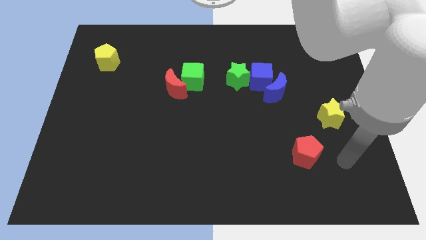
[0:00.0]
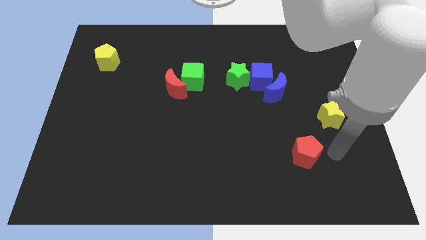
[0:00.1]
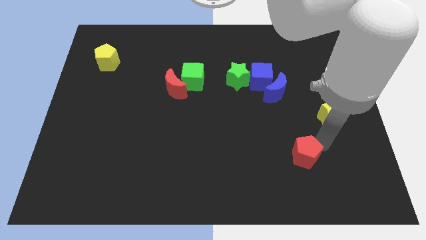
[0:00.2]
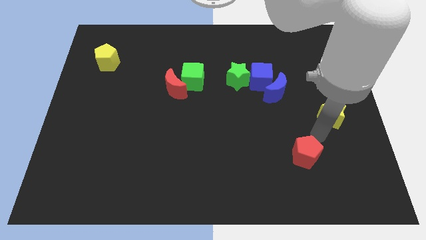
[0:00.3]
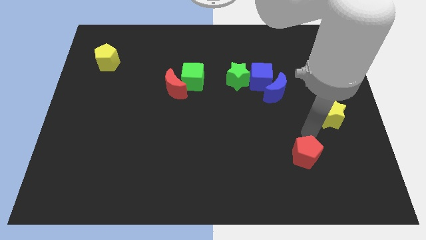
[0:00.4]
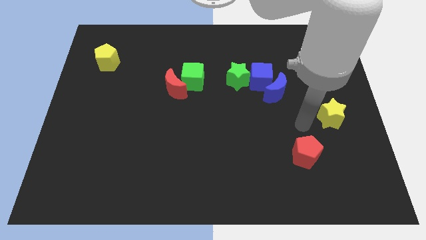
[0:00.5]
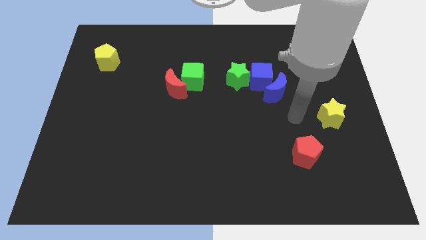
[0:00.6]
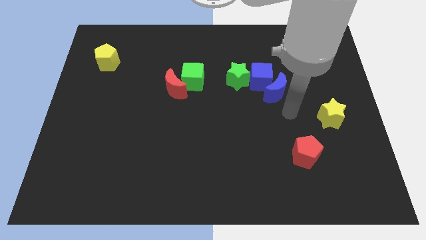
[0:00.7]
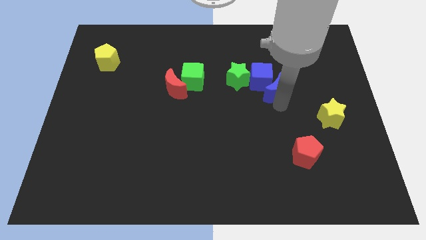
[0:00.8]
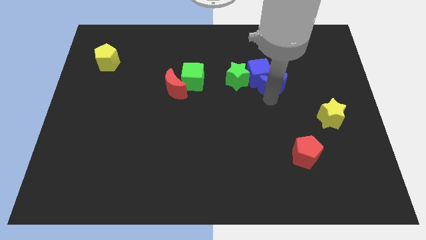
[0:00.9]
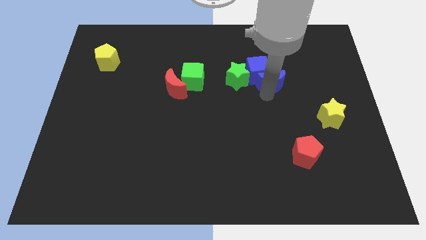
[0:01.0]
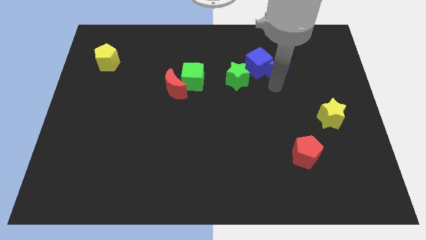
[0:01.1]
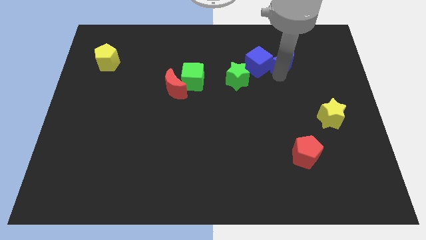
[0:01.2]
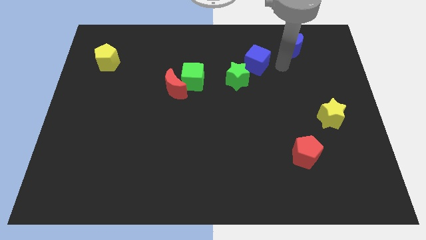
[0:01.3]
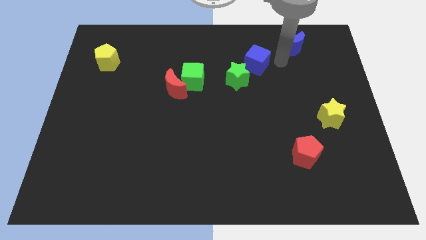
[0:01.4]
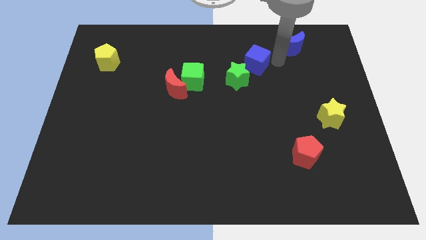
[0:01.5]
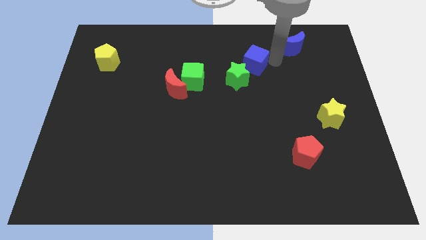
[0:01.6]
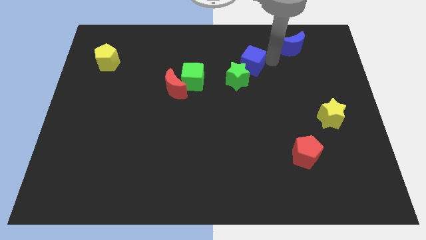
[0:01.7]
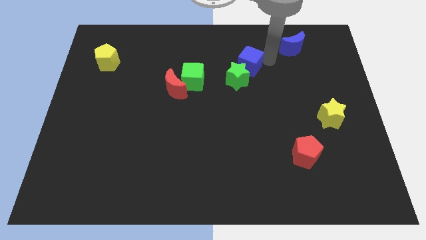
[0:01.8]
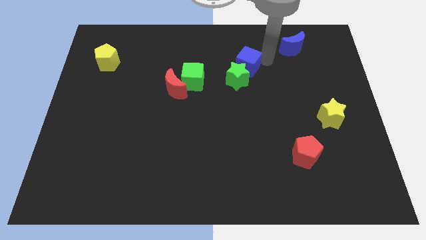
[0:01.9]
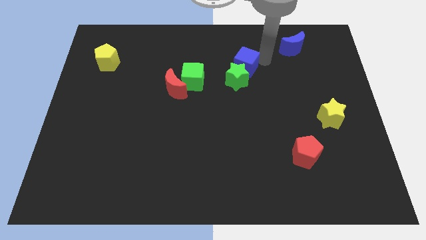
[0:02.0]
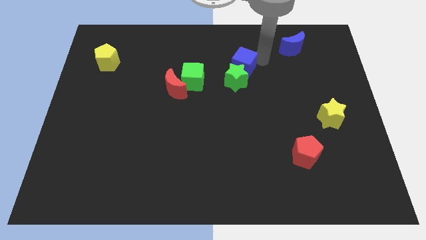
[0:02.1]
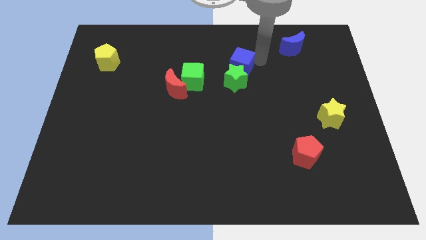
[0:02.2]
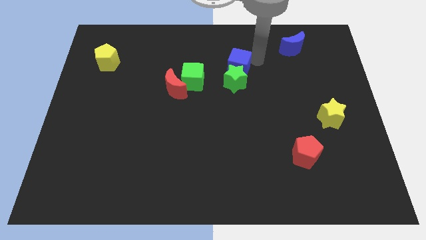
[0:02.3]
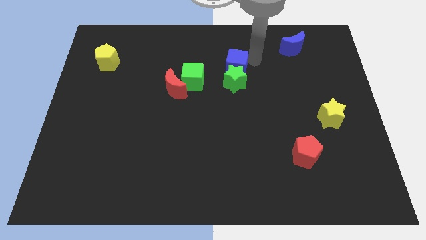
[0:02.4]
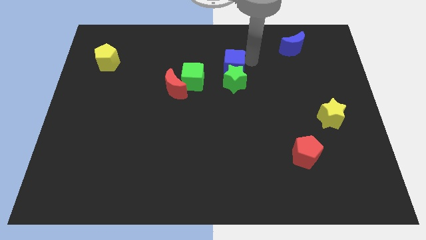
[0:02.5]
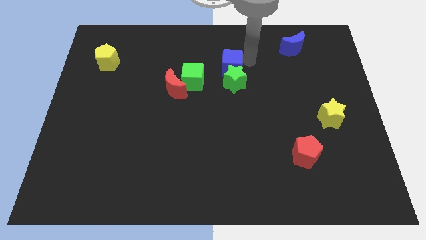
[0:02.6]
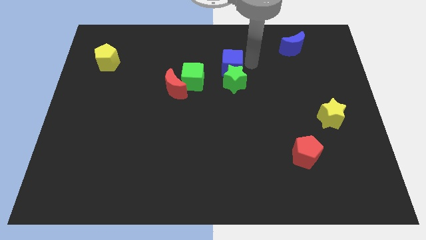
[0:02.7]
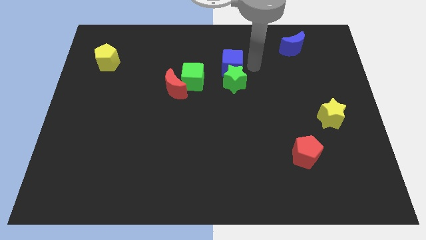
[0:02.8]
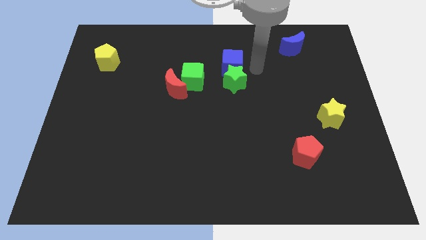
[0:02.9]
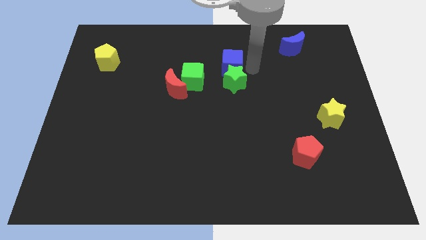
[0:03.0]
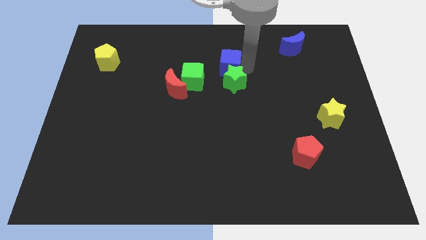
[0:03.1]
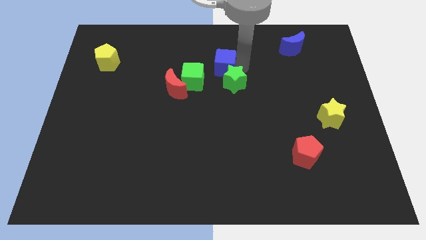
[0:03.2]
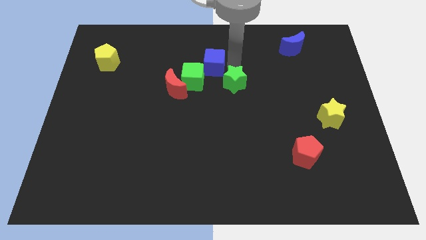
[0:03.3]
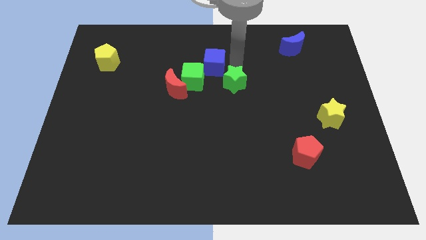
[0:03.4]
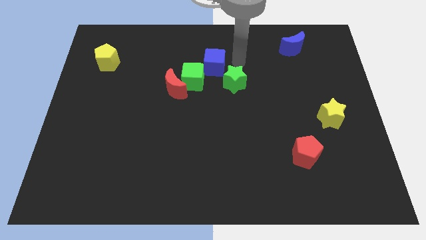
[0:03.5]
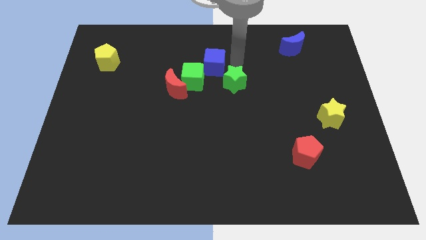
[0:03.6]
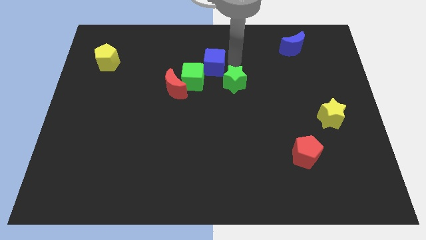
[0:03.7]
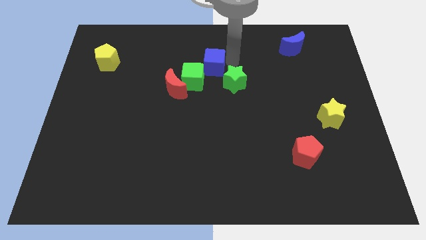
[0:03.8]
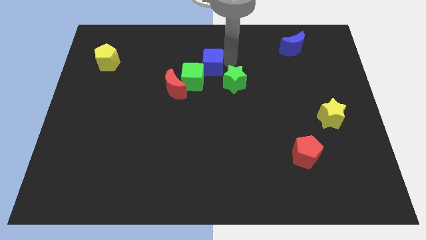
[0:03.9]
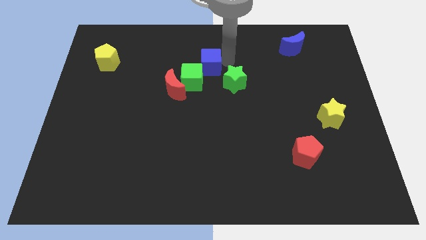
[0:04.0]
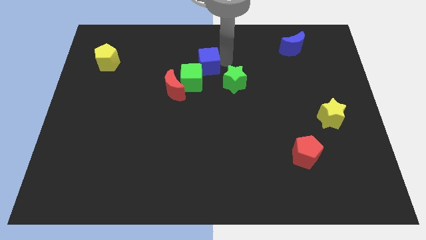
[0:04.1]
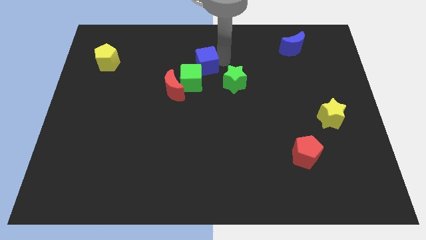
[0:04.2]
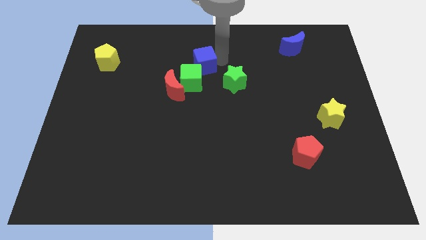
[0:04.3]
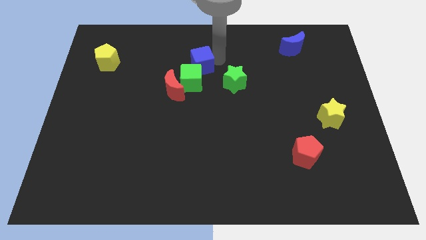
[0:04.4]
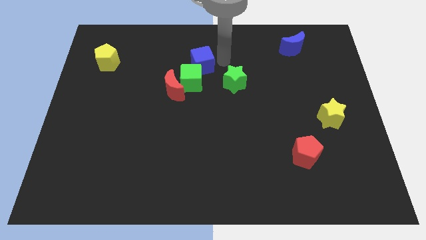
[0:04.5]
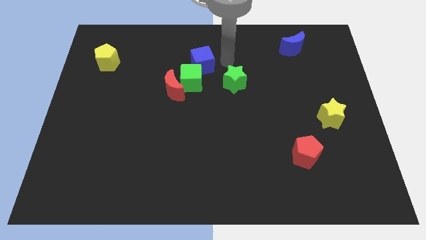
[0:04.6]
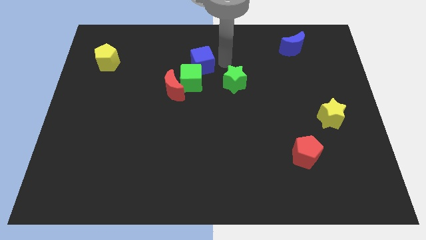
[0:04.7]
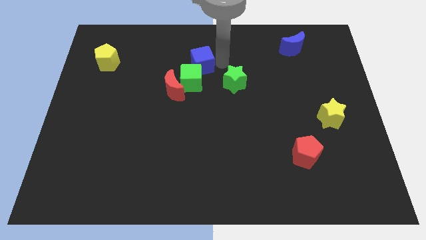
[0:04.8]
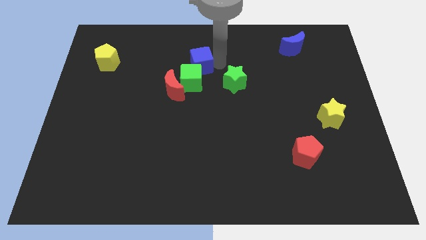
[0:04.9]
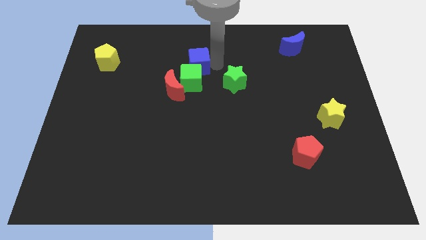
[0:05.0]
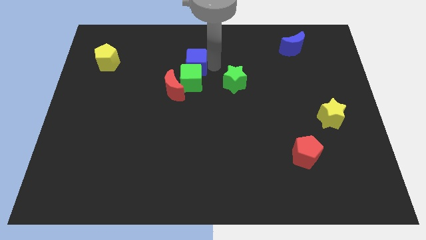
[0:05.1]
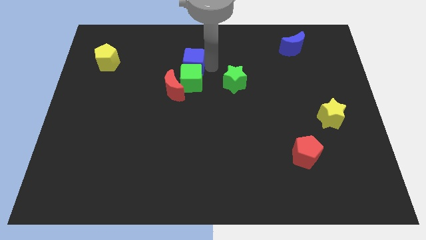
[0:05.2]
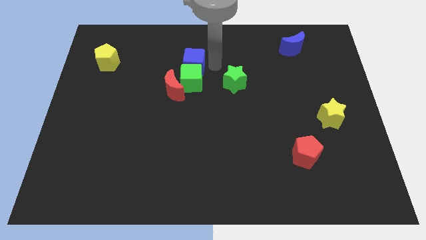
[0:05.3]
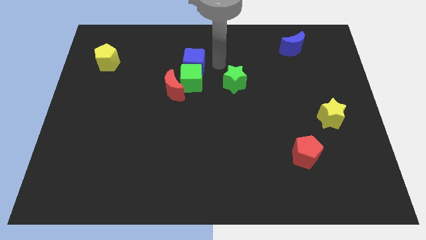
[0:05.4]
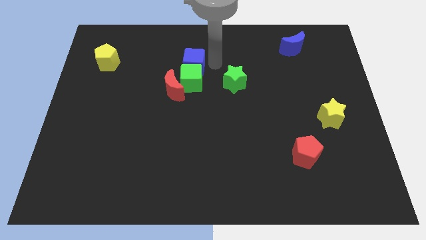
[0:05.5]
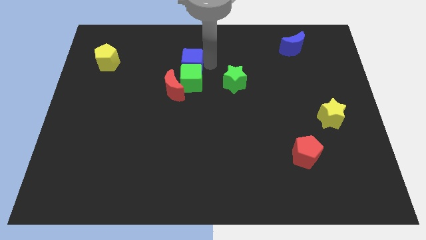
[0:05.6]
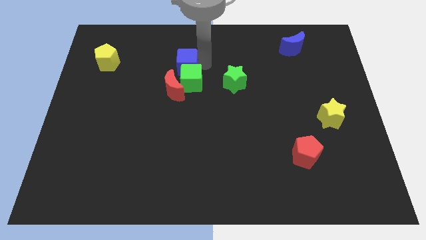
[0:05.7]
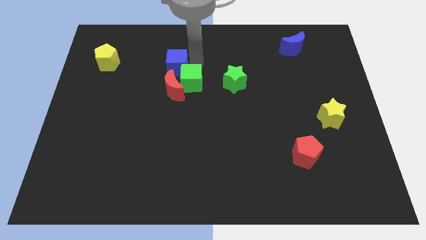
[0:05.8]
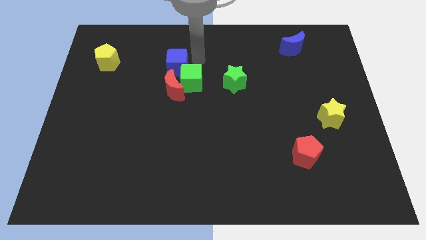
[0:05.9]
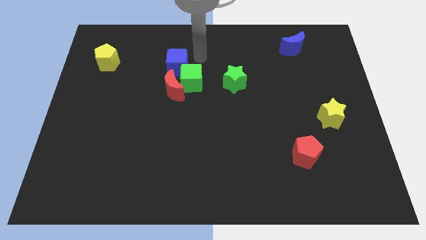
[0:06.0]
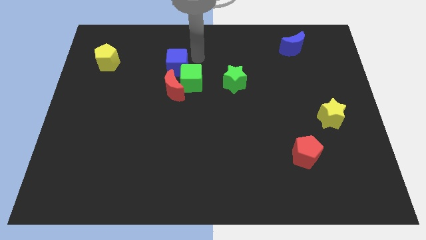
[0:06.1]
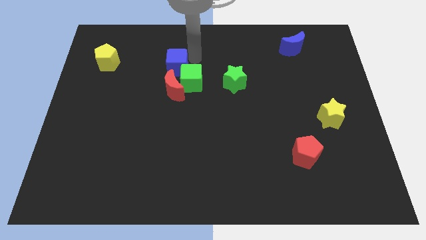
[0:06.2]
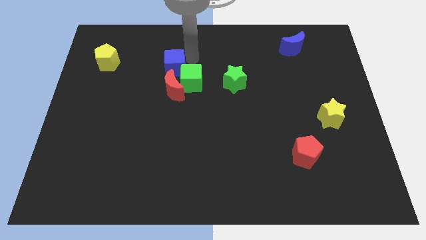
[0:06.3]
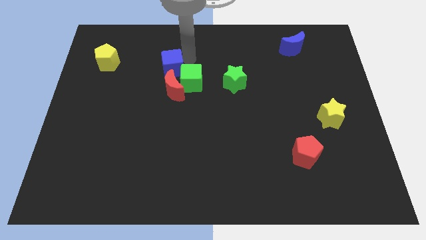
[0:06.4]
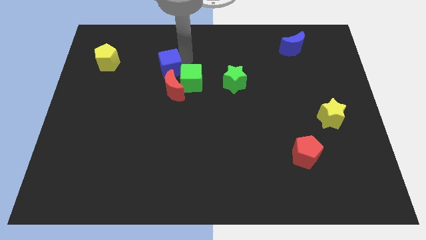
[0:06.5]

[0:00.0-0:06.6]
put the blue cube to the top left side of the red moon
